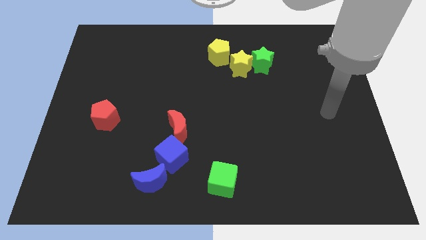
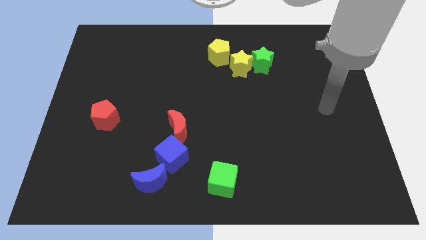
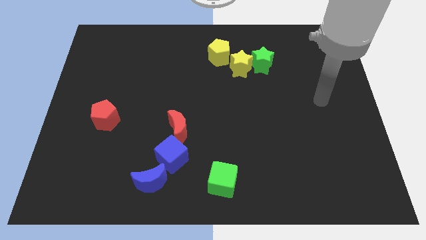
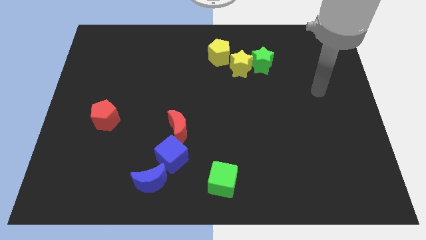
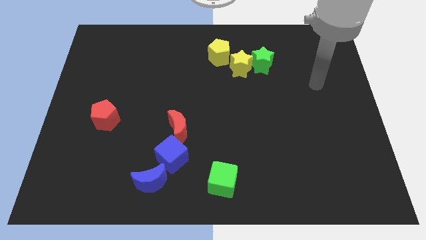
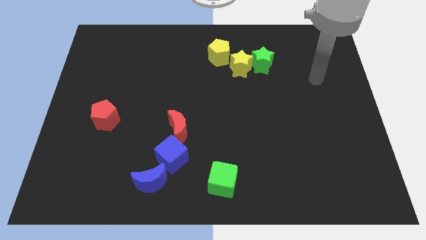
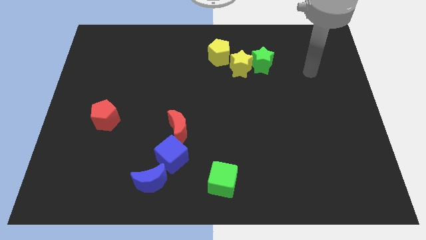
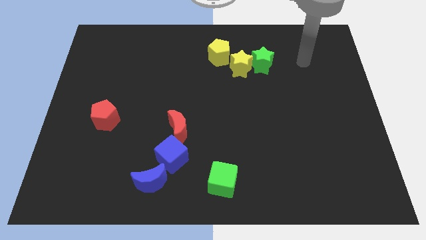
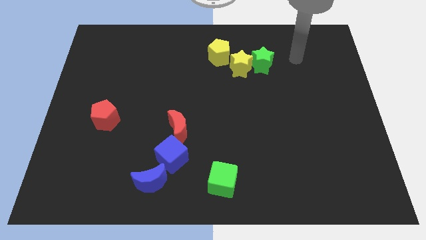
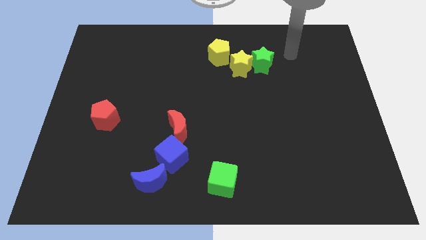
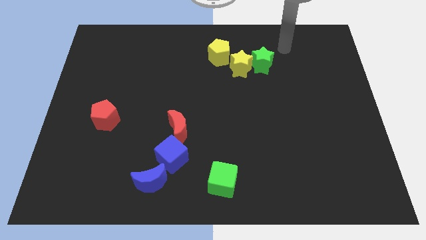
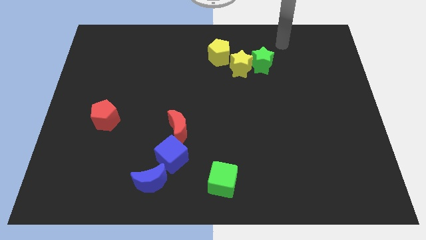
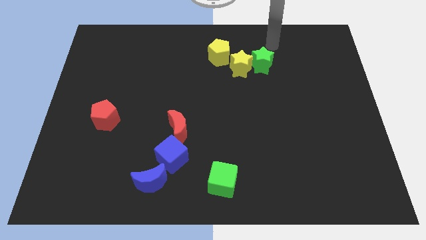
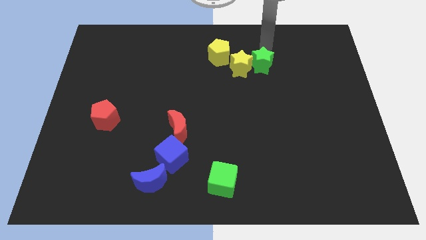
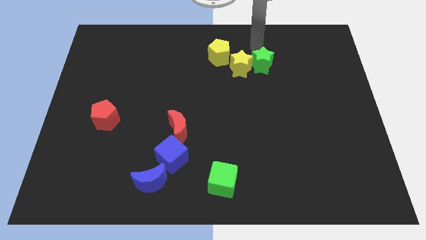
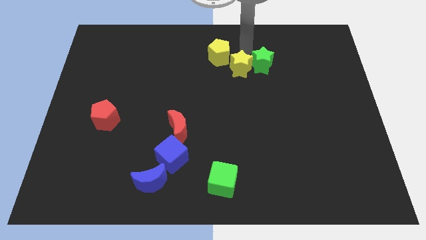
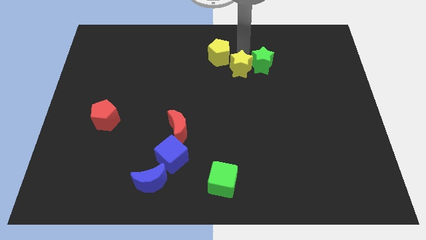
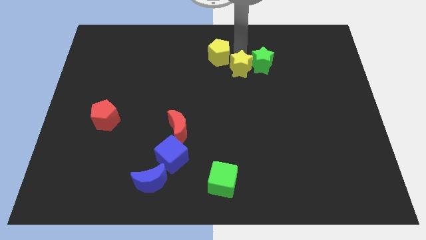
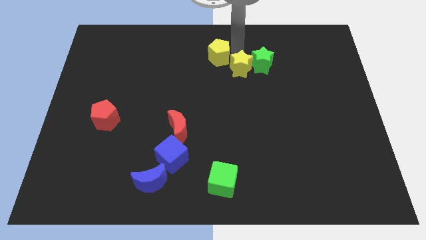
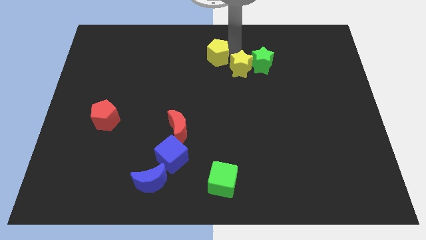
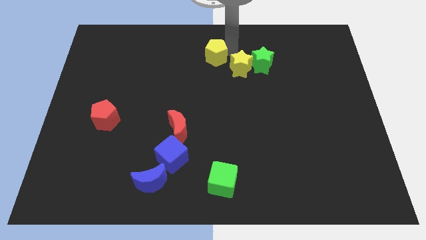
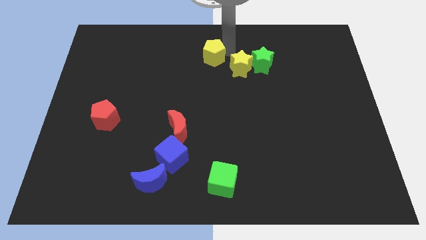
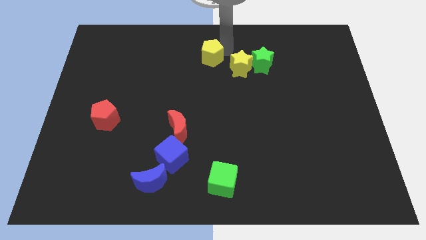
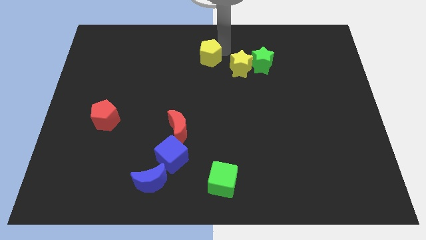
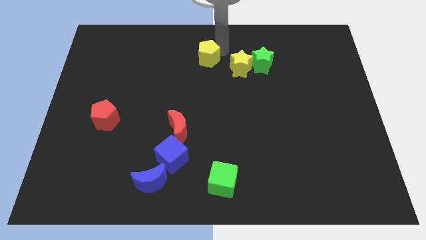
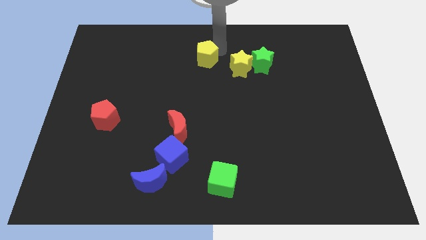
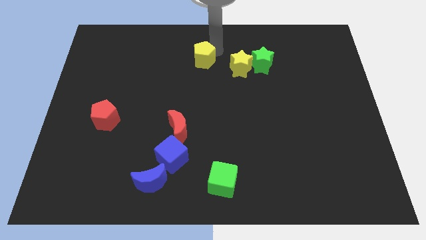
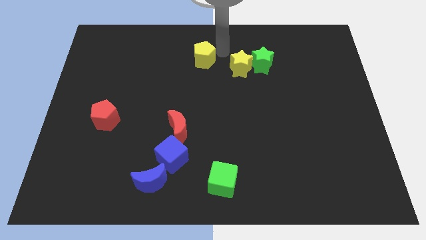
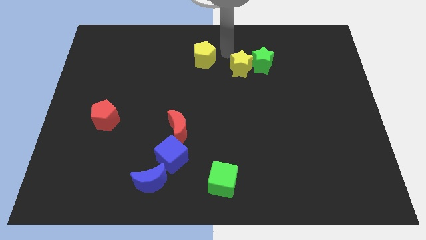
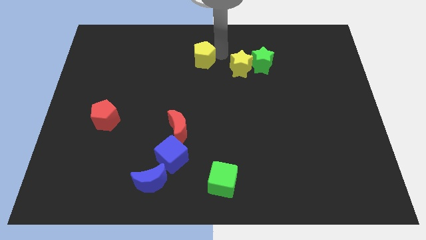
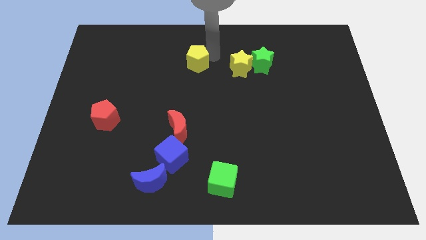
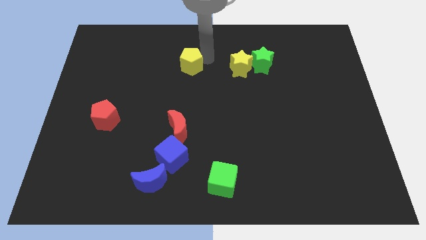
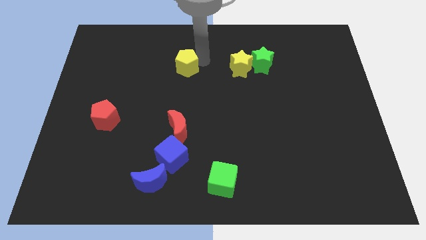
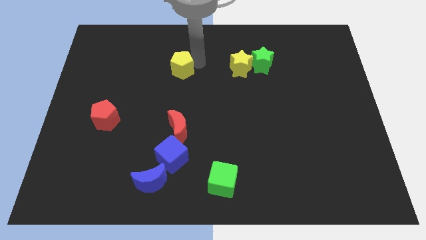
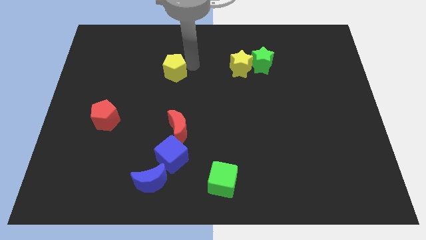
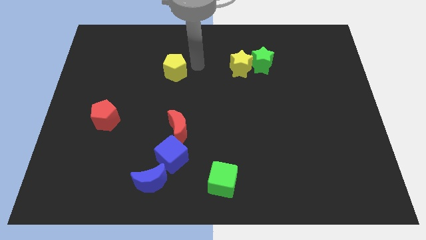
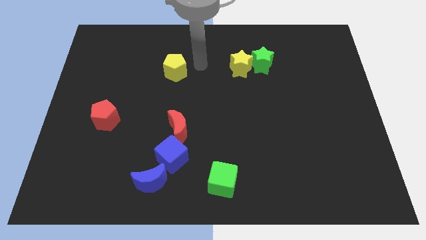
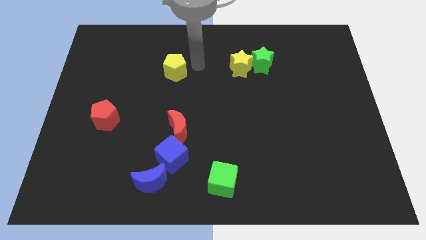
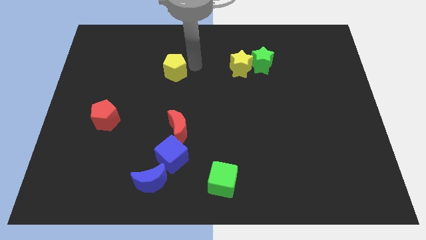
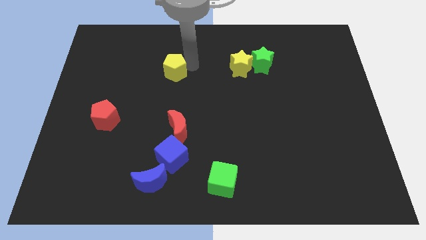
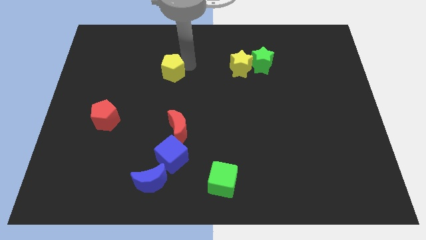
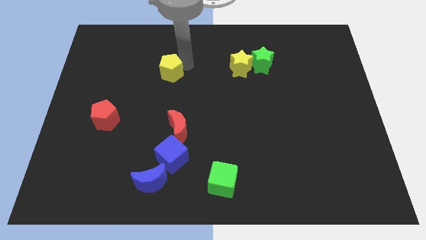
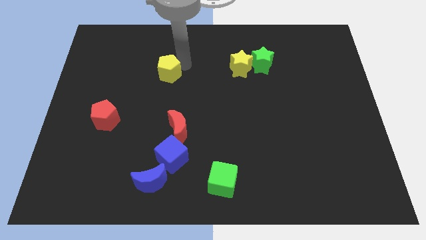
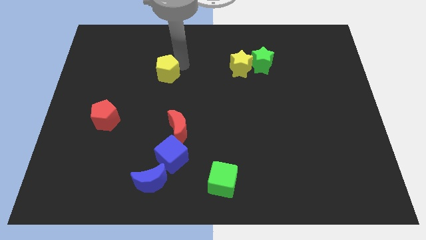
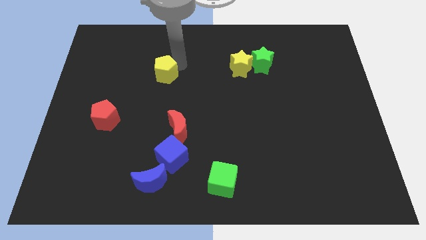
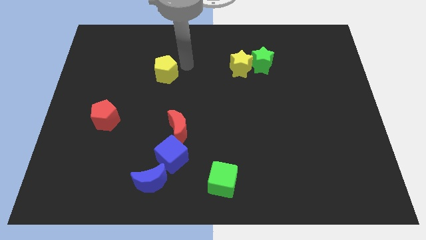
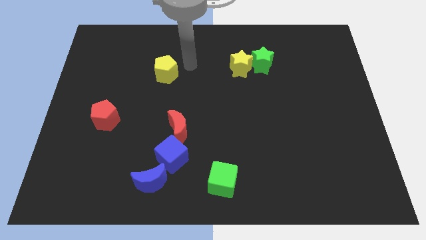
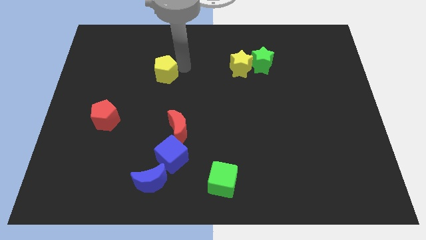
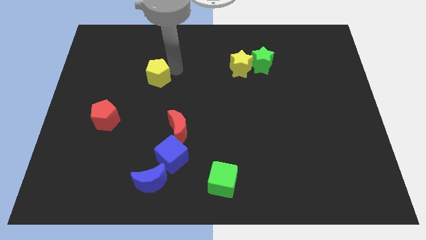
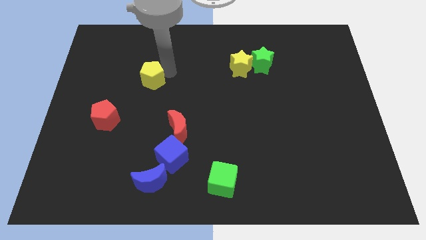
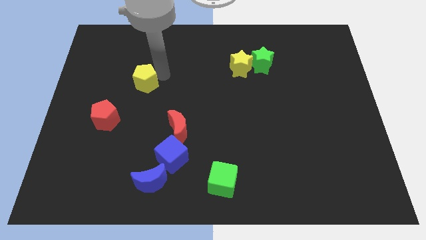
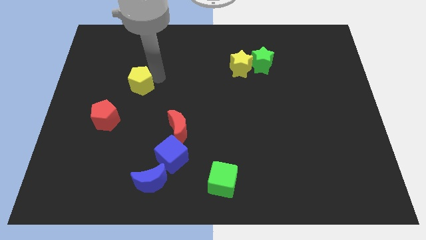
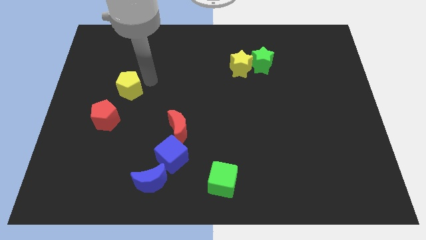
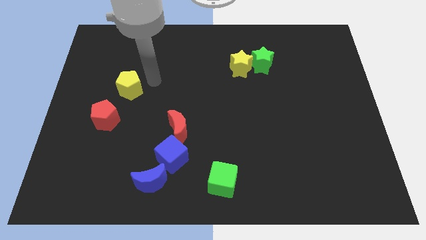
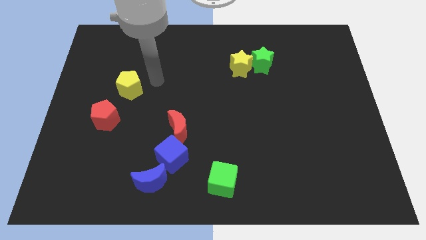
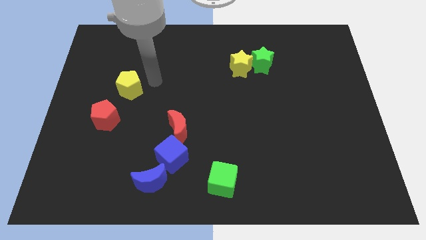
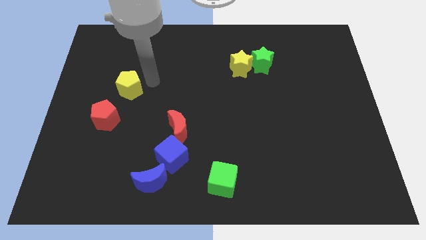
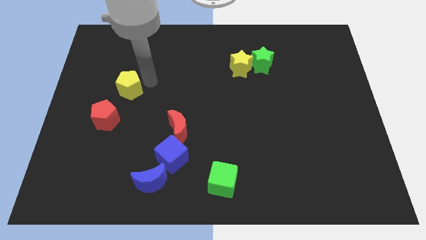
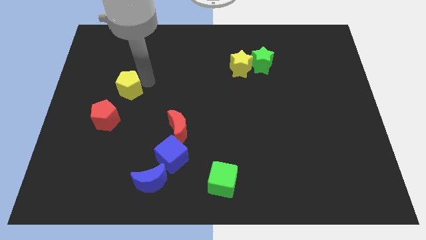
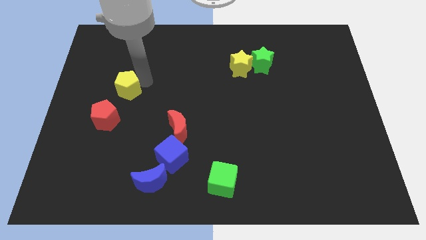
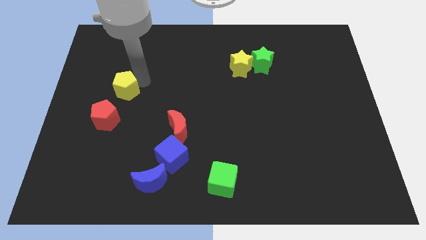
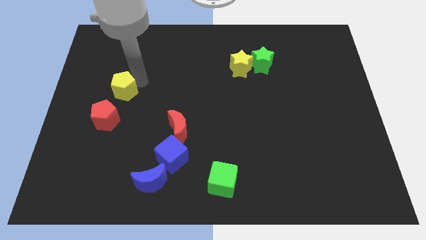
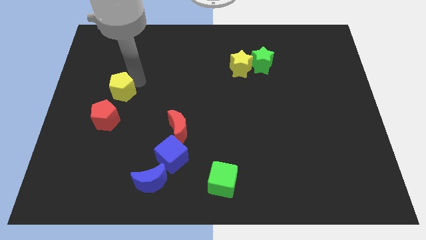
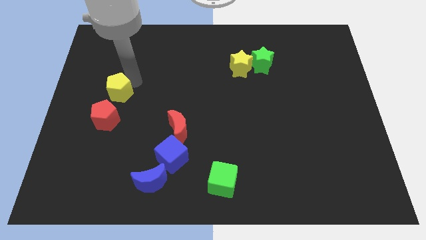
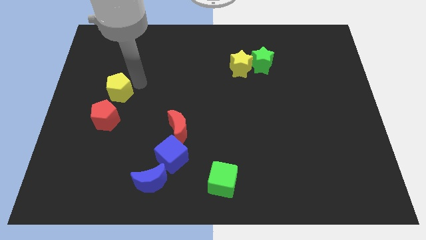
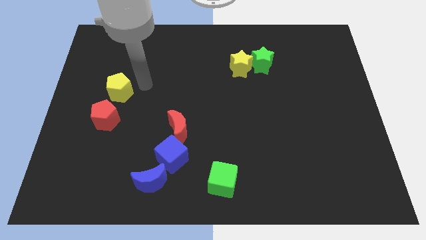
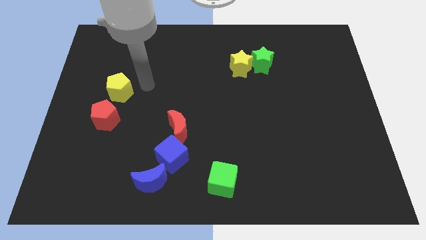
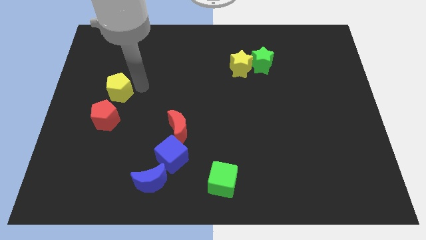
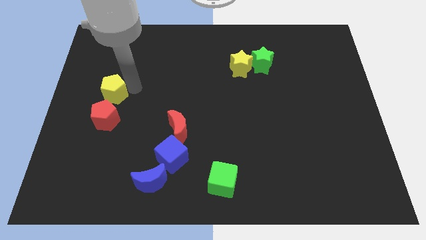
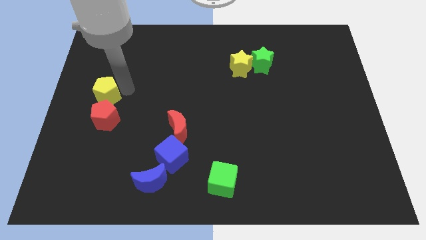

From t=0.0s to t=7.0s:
put the yellow pentagon to the left side
